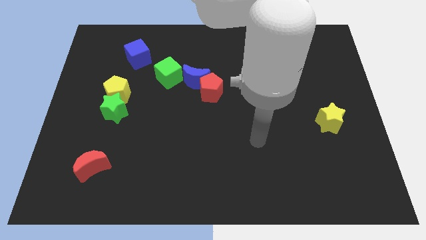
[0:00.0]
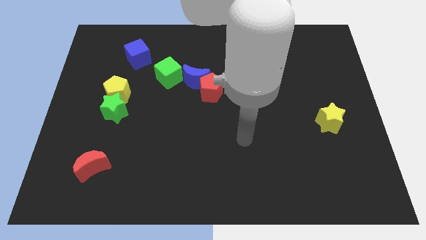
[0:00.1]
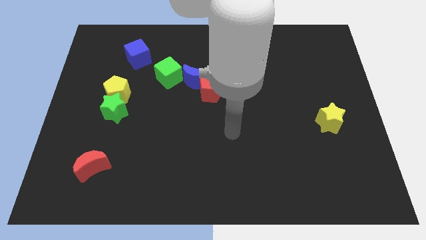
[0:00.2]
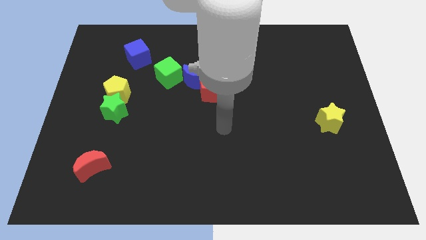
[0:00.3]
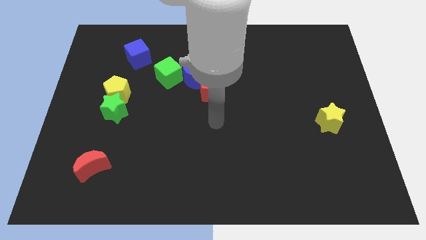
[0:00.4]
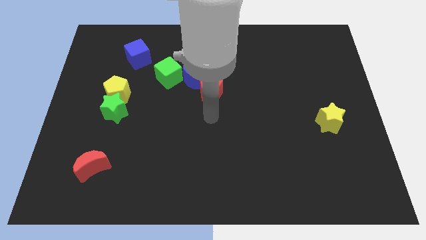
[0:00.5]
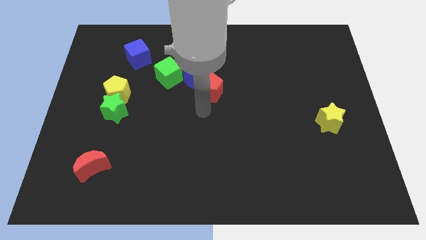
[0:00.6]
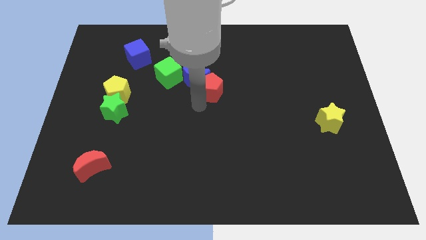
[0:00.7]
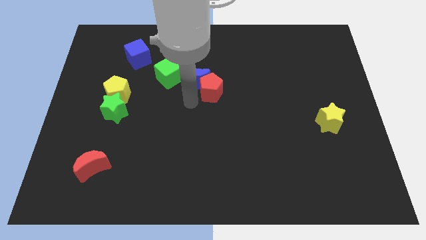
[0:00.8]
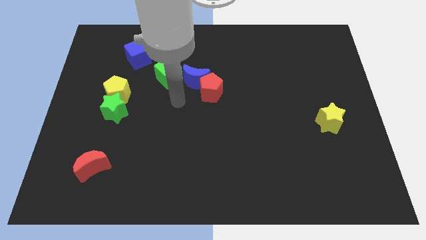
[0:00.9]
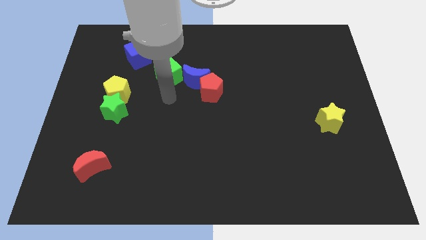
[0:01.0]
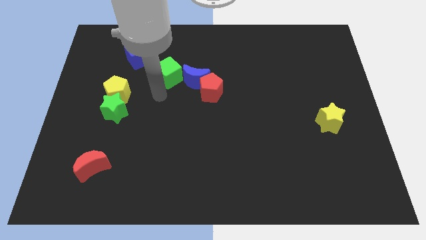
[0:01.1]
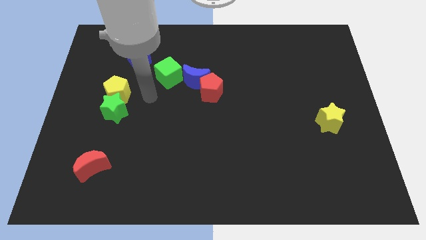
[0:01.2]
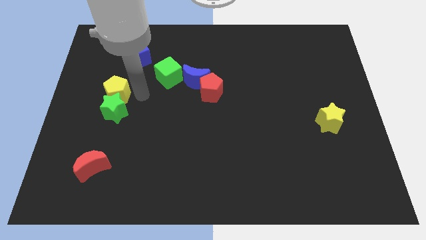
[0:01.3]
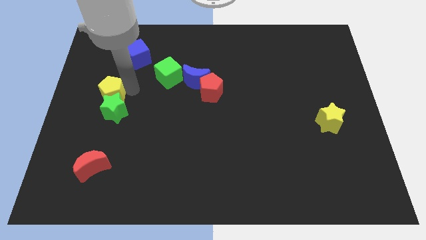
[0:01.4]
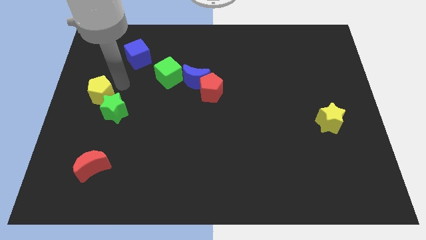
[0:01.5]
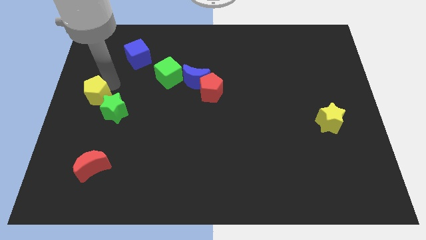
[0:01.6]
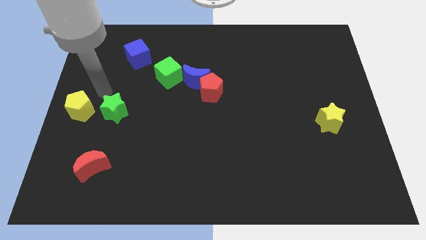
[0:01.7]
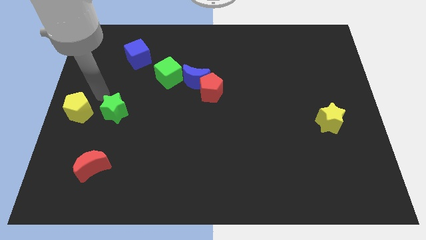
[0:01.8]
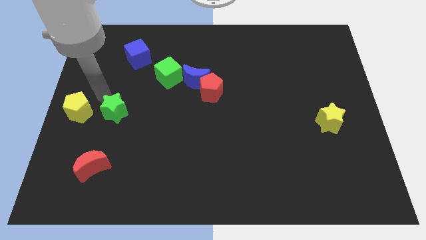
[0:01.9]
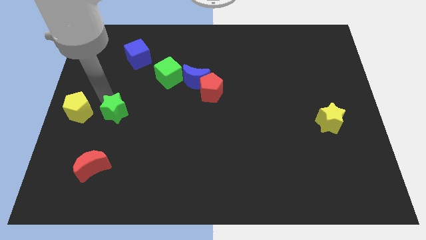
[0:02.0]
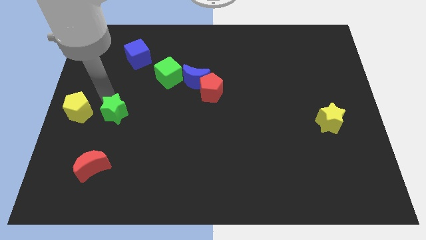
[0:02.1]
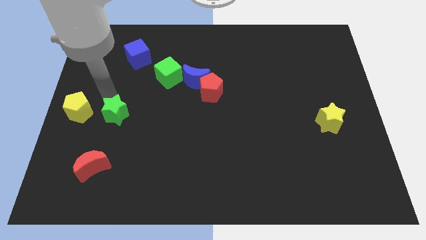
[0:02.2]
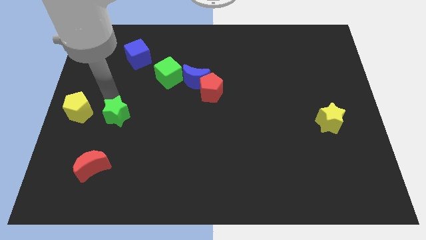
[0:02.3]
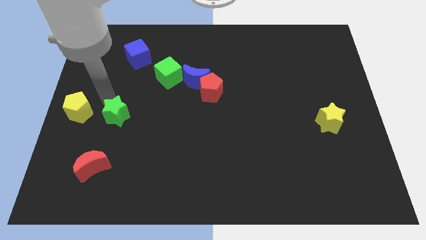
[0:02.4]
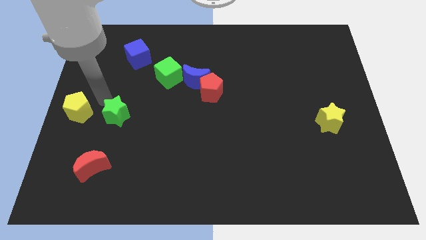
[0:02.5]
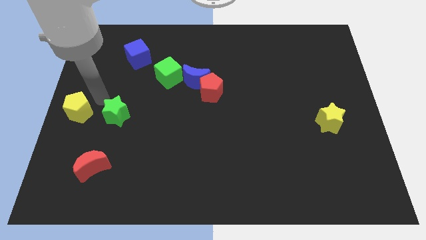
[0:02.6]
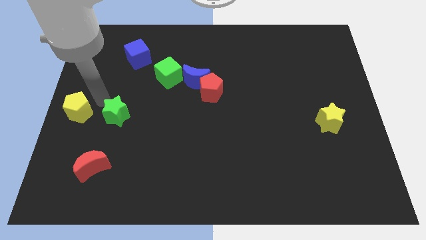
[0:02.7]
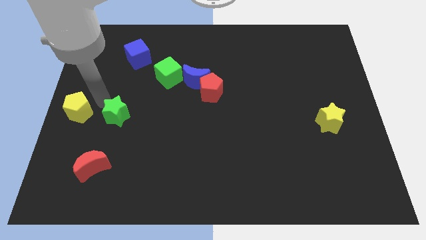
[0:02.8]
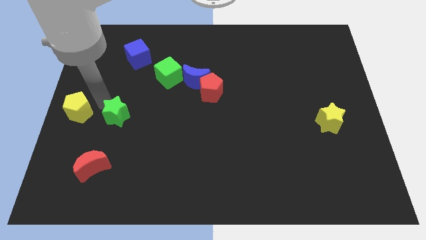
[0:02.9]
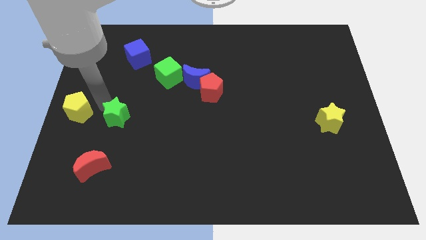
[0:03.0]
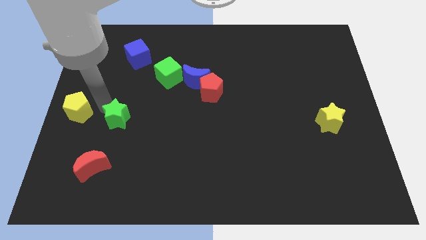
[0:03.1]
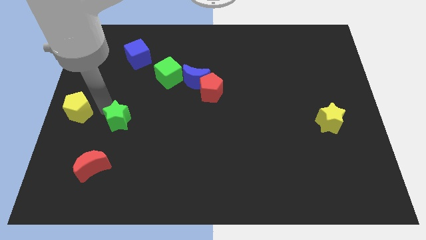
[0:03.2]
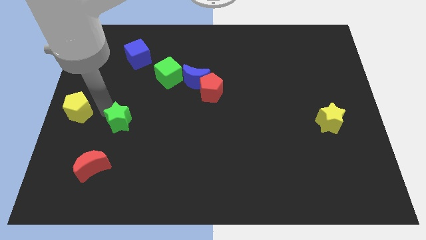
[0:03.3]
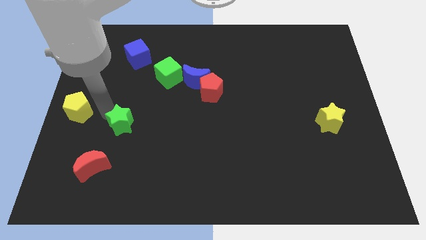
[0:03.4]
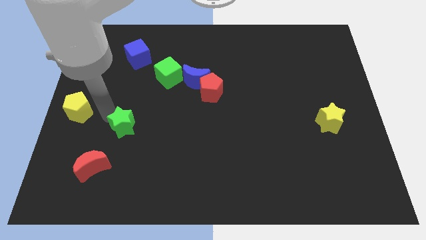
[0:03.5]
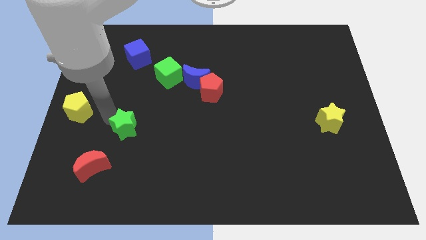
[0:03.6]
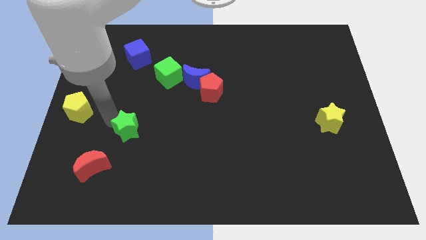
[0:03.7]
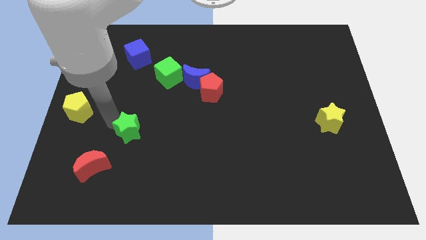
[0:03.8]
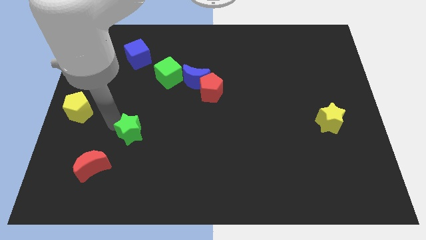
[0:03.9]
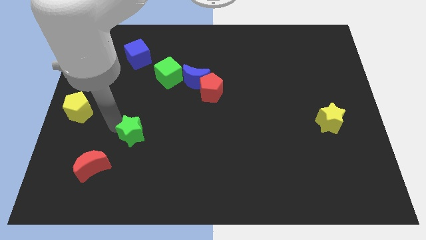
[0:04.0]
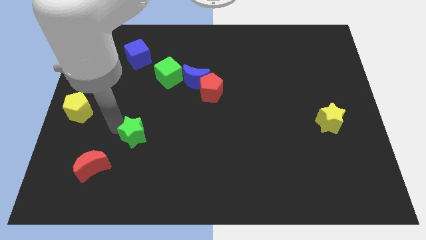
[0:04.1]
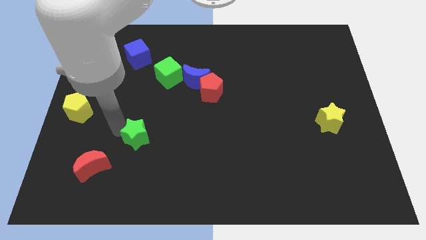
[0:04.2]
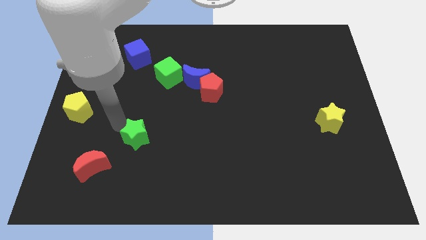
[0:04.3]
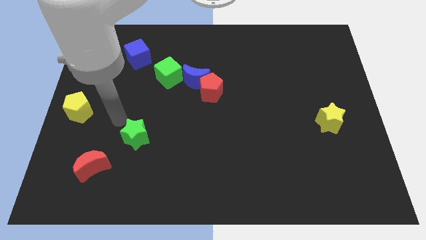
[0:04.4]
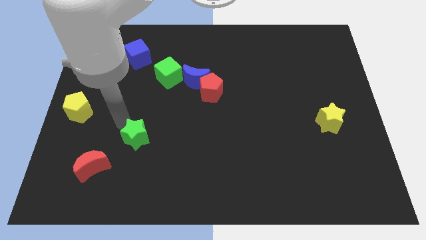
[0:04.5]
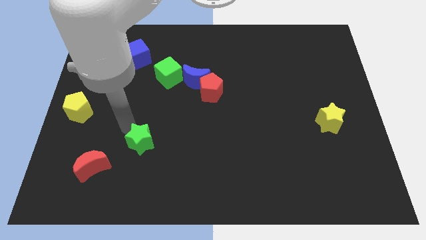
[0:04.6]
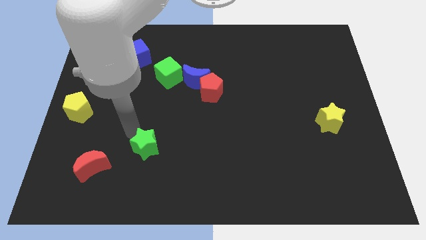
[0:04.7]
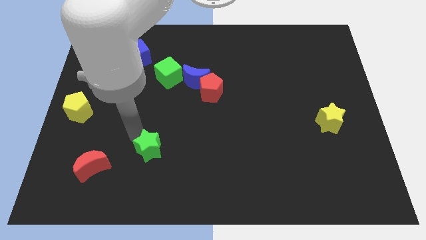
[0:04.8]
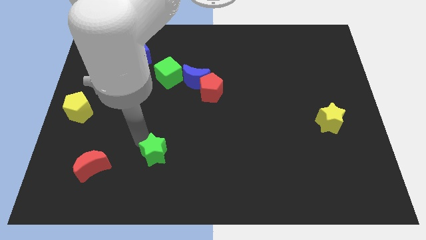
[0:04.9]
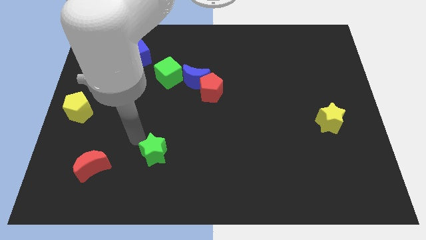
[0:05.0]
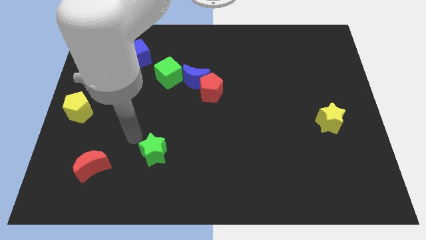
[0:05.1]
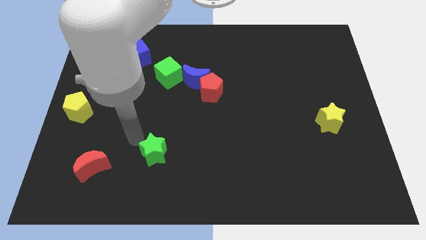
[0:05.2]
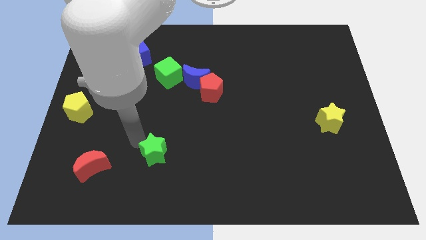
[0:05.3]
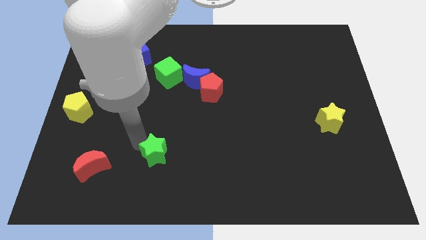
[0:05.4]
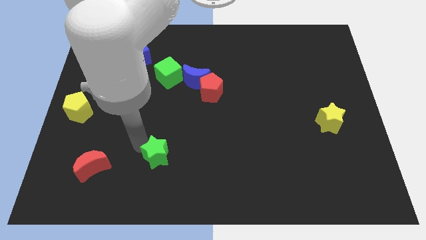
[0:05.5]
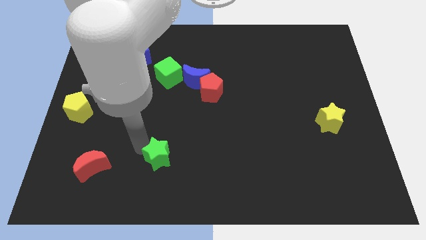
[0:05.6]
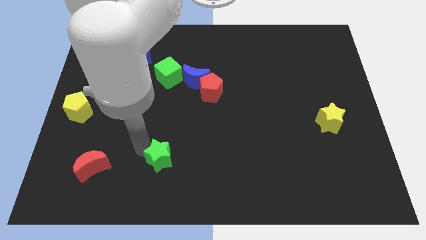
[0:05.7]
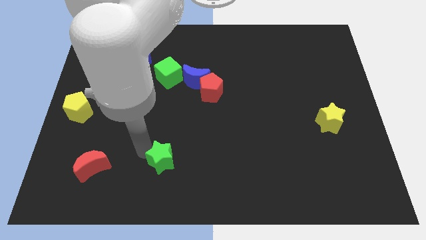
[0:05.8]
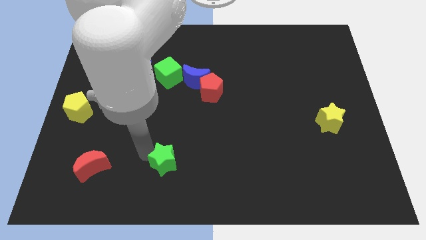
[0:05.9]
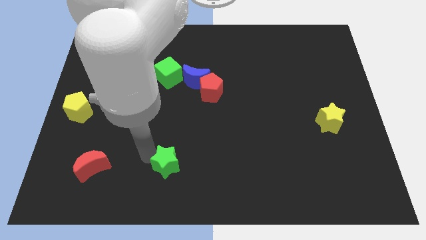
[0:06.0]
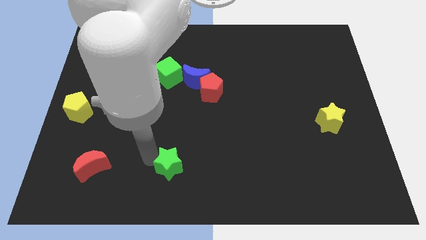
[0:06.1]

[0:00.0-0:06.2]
move the green star to the bottom side
